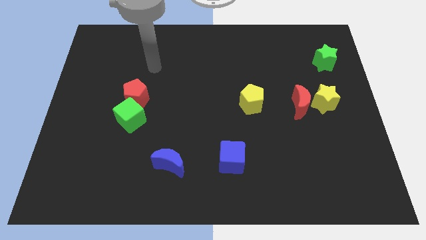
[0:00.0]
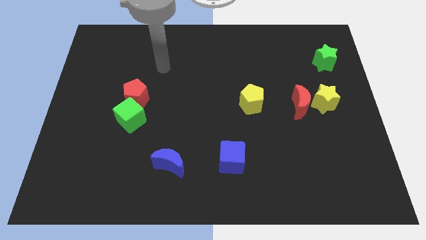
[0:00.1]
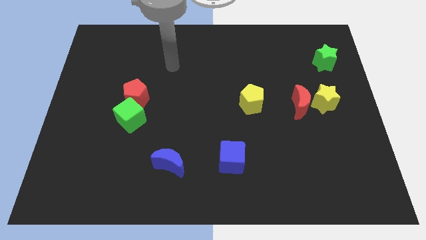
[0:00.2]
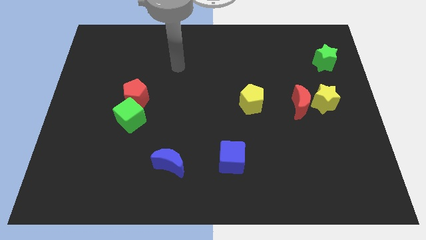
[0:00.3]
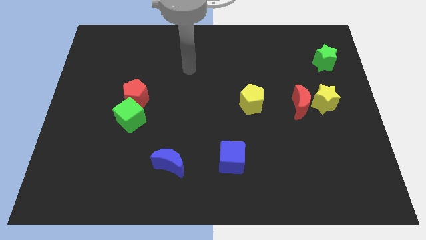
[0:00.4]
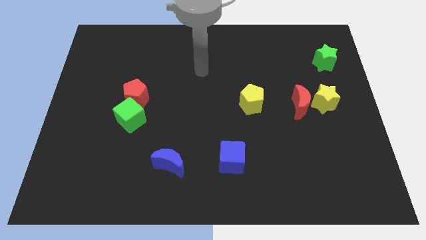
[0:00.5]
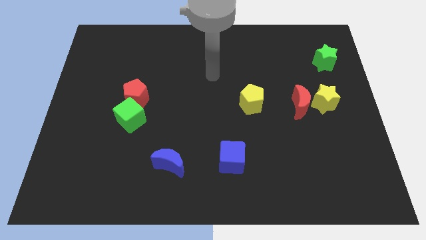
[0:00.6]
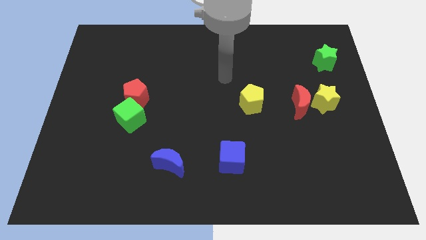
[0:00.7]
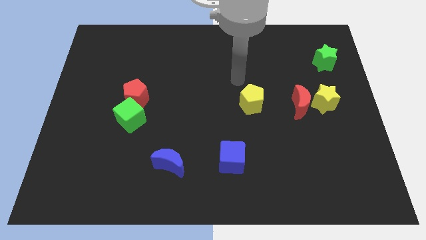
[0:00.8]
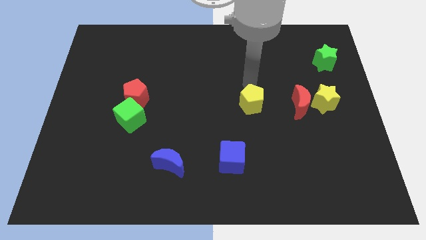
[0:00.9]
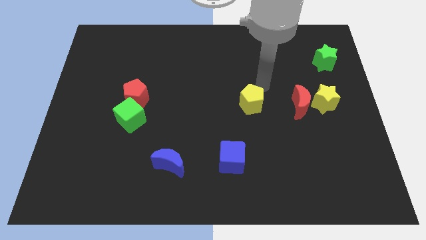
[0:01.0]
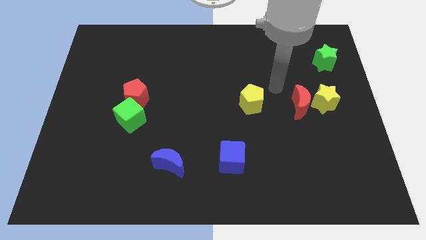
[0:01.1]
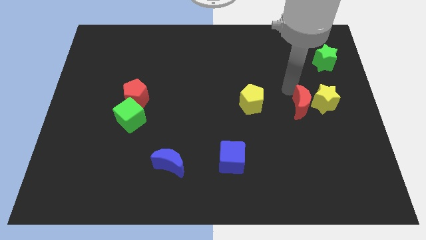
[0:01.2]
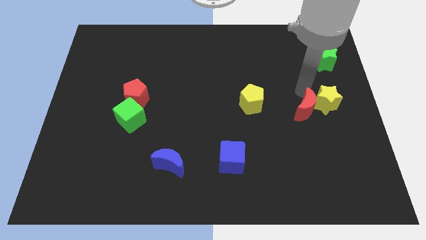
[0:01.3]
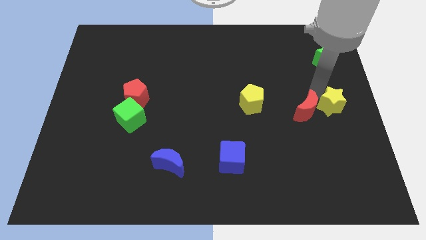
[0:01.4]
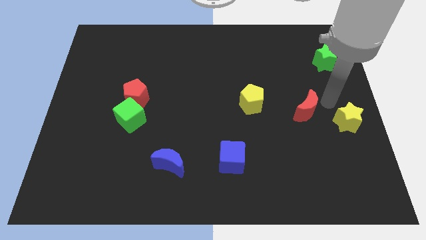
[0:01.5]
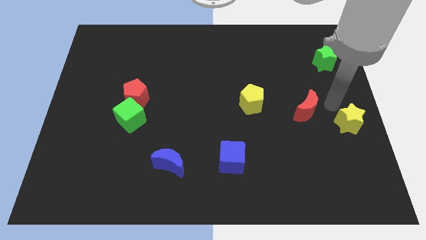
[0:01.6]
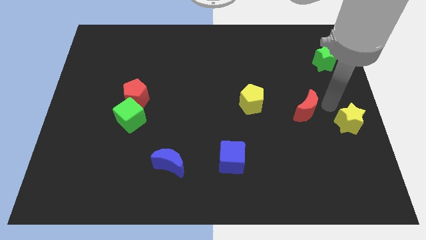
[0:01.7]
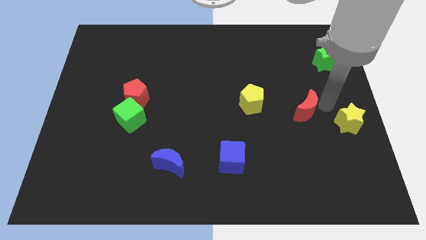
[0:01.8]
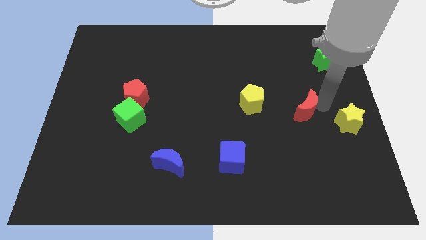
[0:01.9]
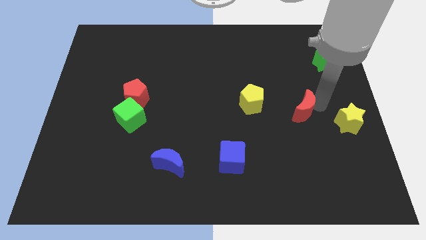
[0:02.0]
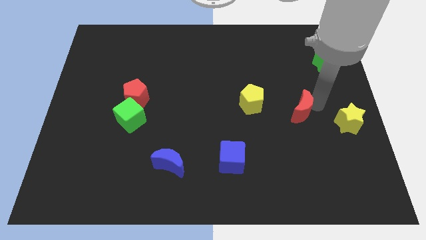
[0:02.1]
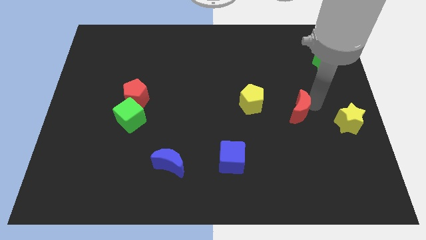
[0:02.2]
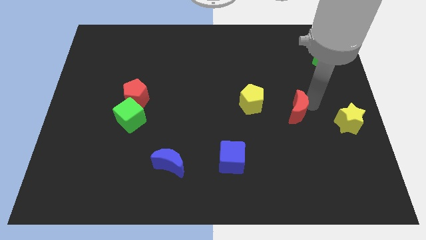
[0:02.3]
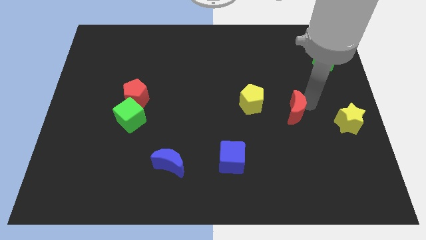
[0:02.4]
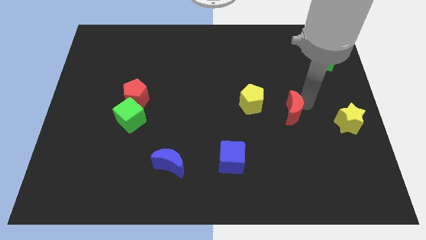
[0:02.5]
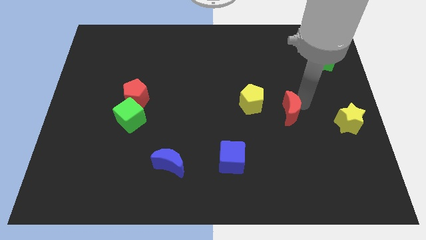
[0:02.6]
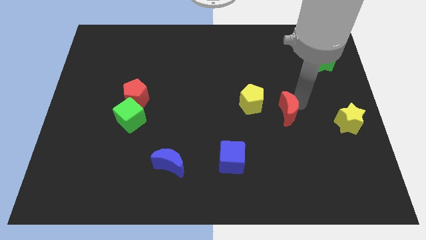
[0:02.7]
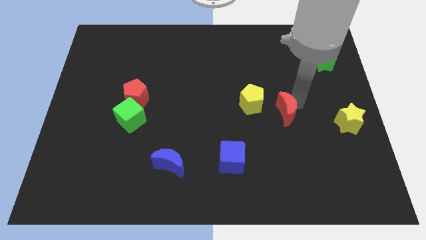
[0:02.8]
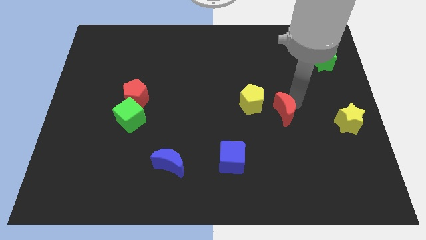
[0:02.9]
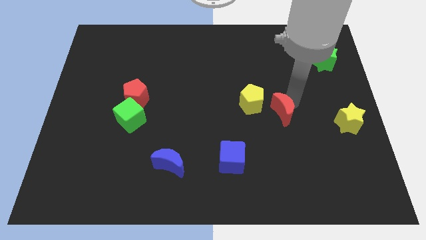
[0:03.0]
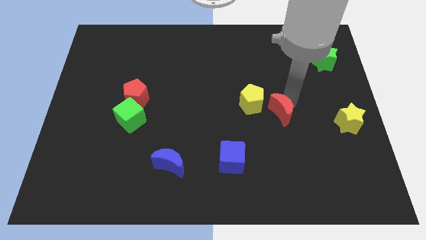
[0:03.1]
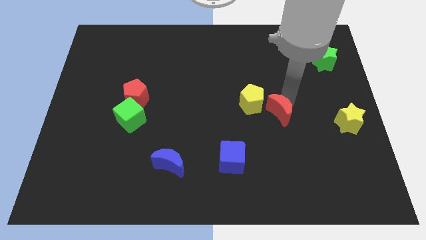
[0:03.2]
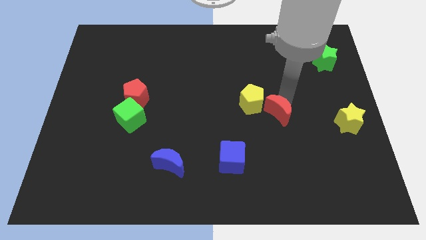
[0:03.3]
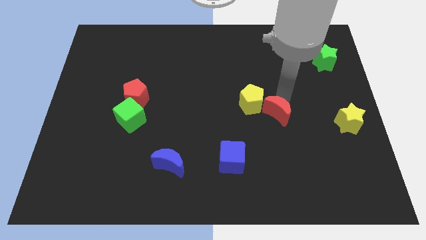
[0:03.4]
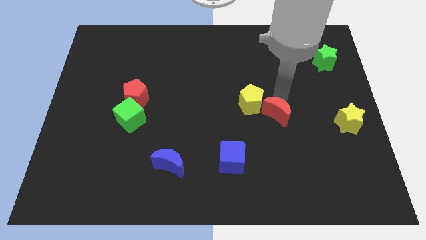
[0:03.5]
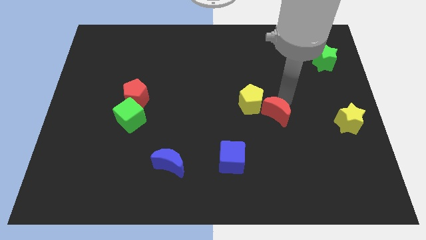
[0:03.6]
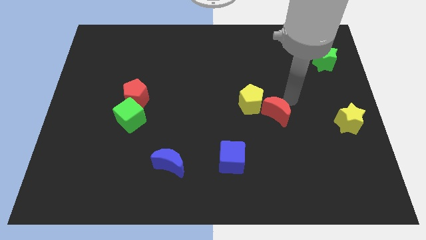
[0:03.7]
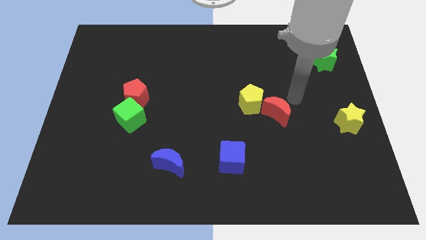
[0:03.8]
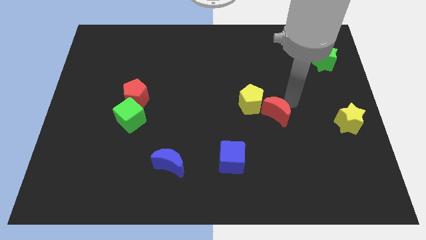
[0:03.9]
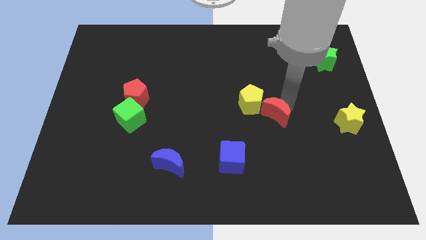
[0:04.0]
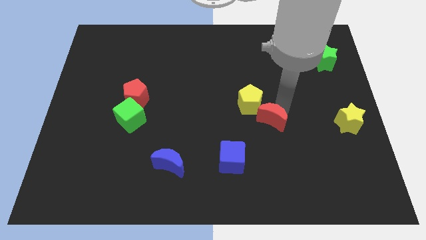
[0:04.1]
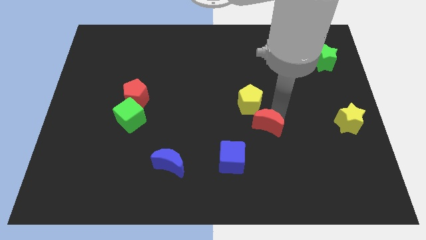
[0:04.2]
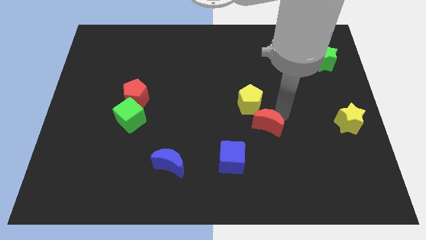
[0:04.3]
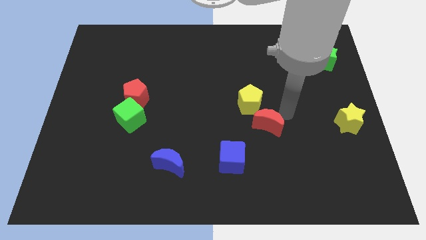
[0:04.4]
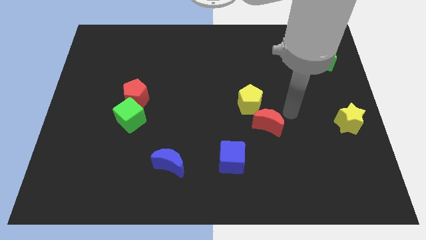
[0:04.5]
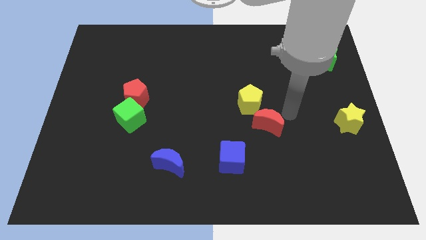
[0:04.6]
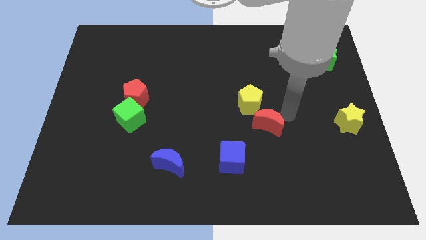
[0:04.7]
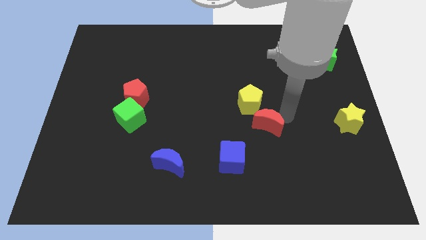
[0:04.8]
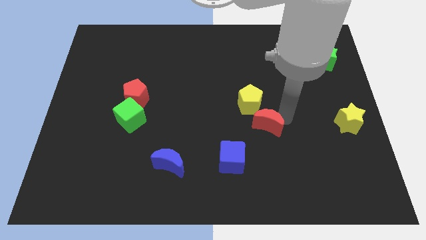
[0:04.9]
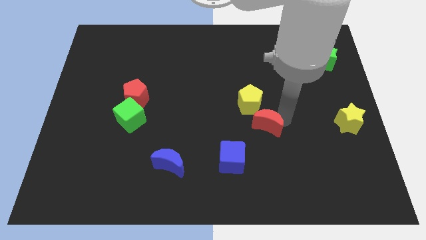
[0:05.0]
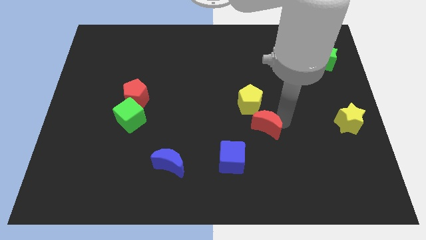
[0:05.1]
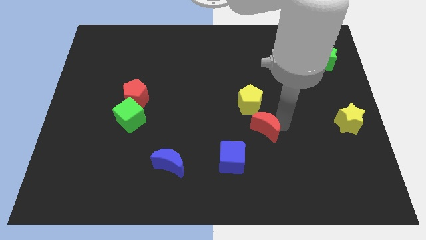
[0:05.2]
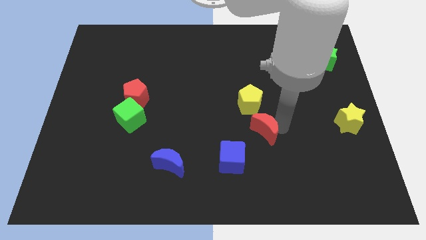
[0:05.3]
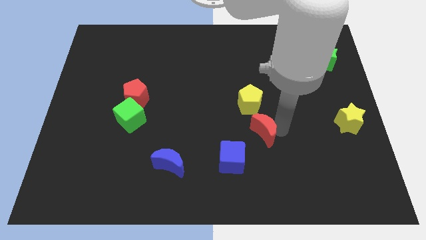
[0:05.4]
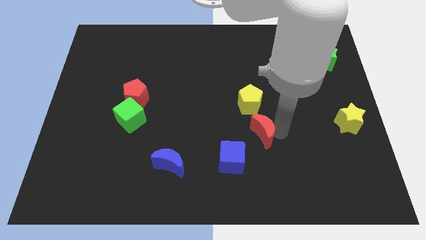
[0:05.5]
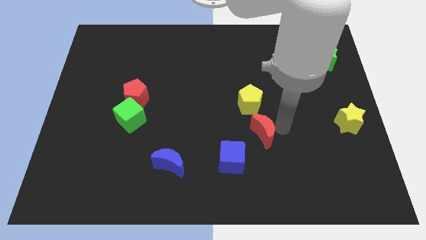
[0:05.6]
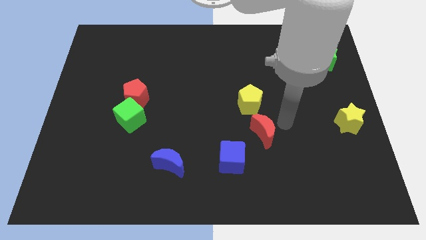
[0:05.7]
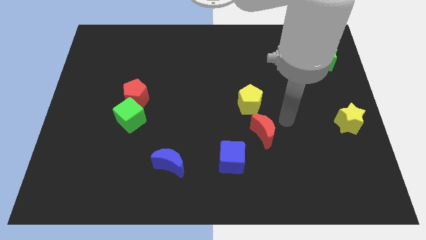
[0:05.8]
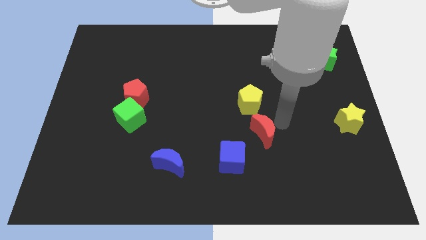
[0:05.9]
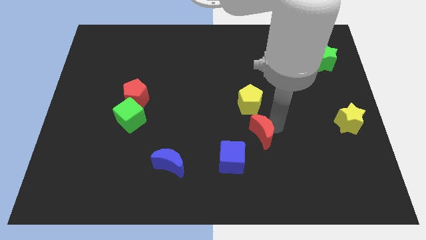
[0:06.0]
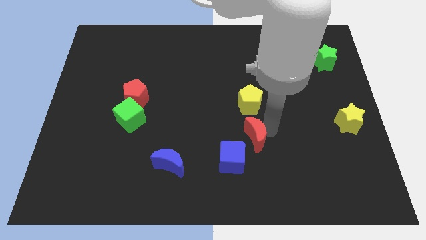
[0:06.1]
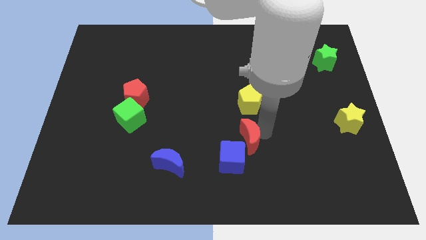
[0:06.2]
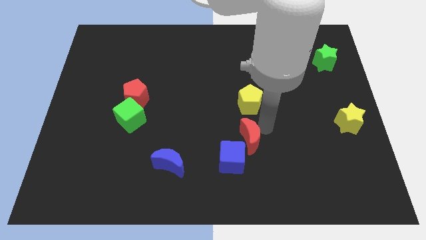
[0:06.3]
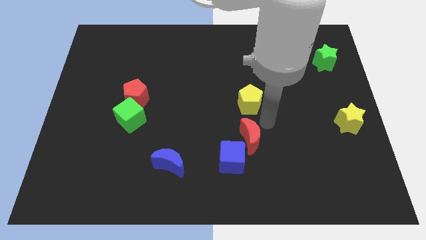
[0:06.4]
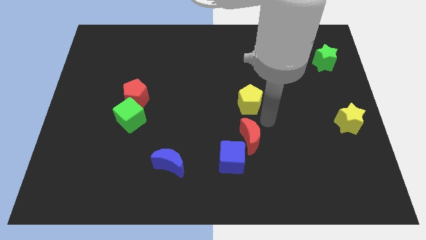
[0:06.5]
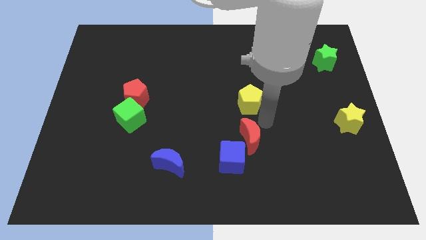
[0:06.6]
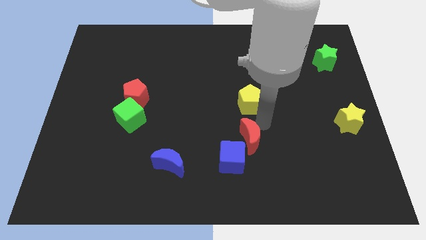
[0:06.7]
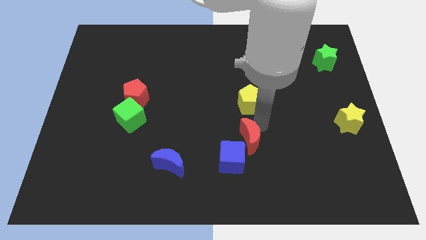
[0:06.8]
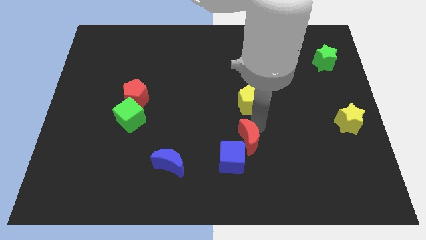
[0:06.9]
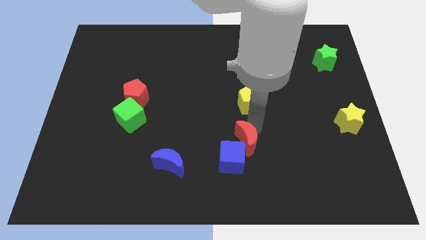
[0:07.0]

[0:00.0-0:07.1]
put the red moon to the blue cube
